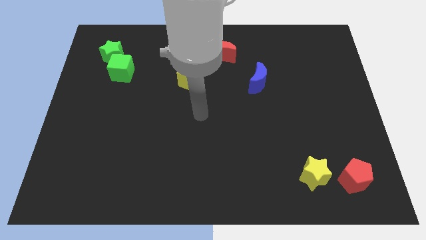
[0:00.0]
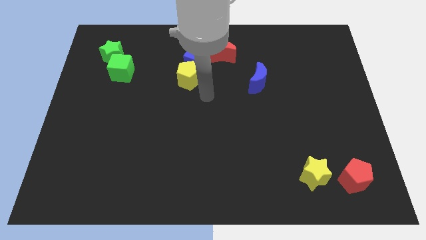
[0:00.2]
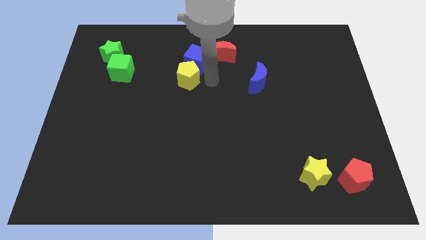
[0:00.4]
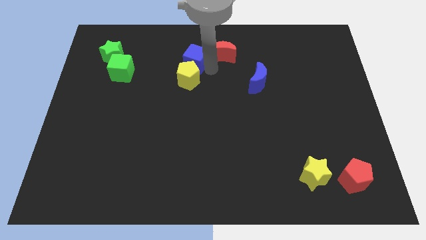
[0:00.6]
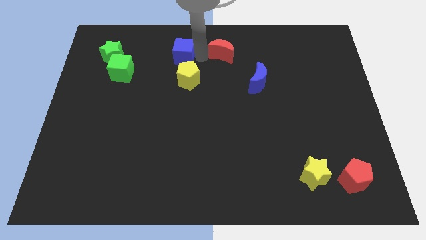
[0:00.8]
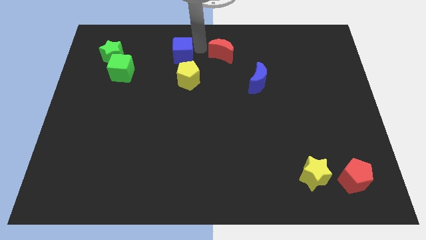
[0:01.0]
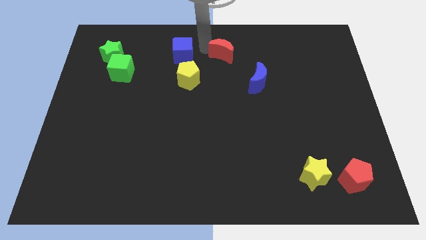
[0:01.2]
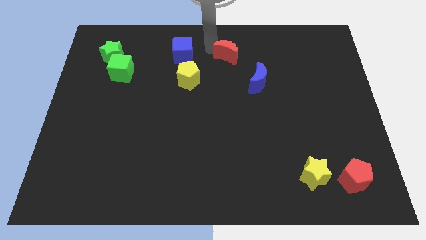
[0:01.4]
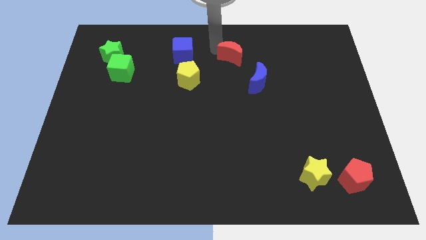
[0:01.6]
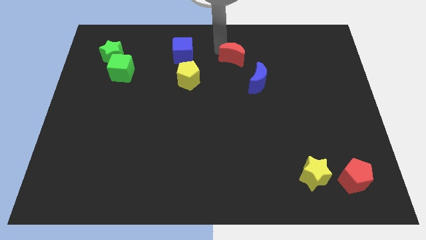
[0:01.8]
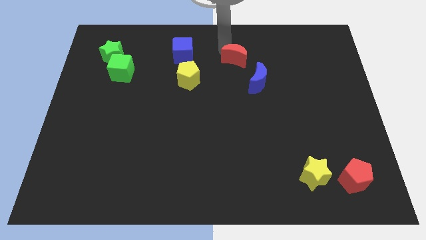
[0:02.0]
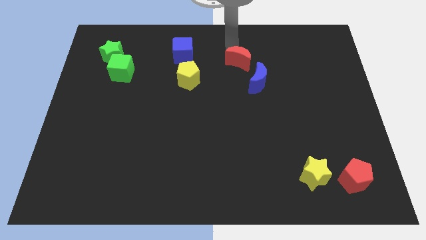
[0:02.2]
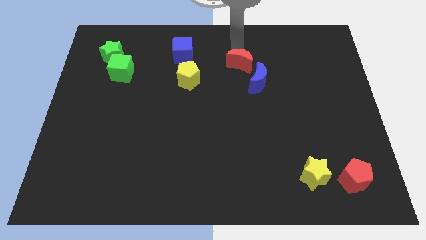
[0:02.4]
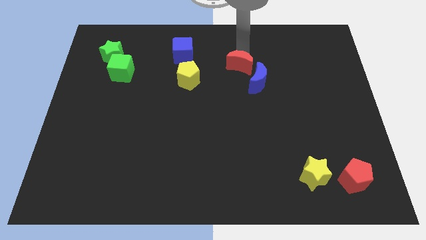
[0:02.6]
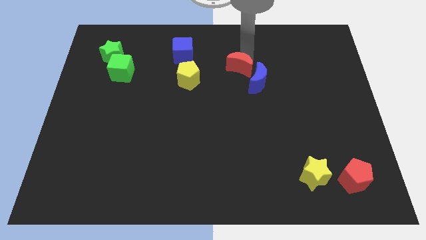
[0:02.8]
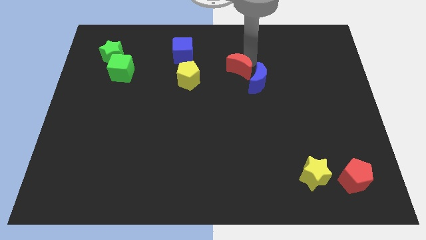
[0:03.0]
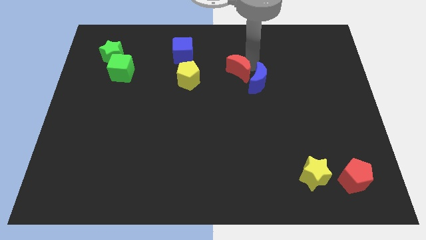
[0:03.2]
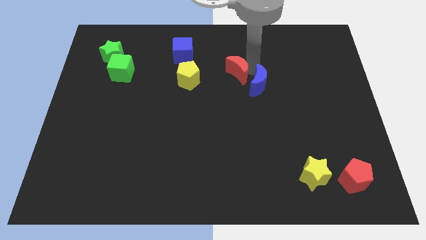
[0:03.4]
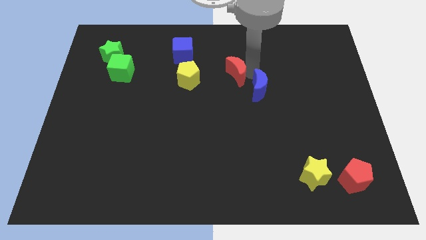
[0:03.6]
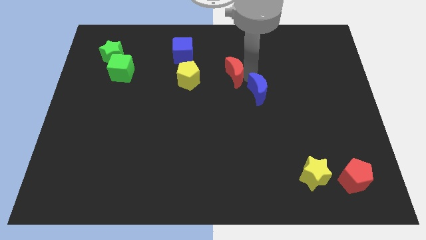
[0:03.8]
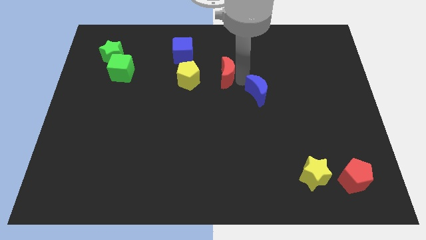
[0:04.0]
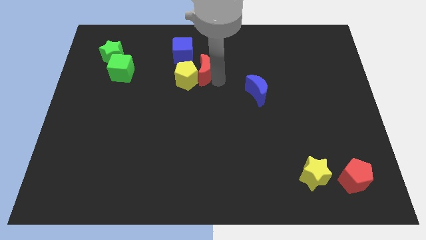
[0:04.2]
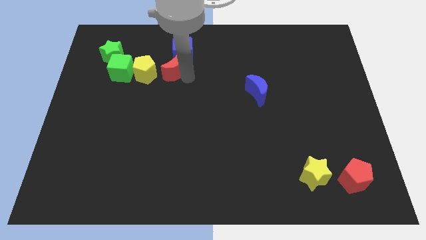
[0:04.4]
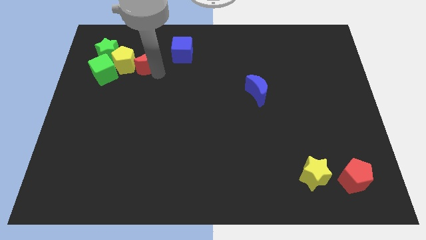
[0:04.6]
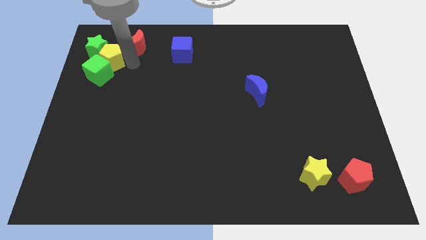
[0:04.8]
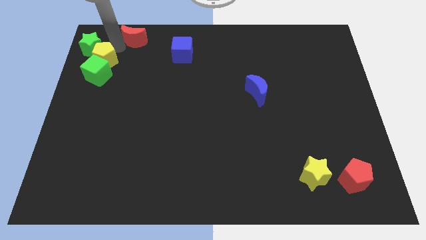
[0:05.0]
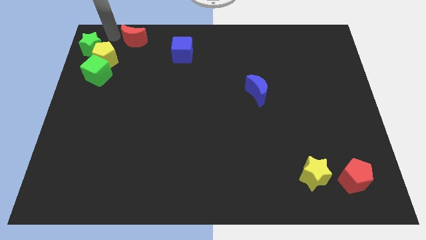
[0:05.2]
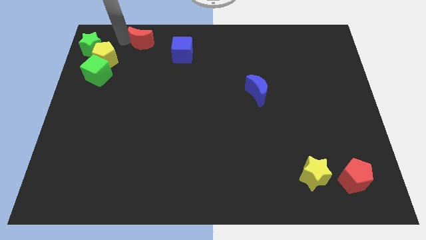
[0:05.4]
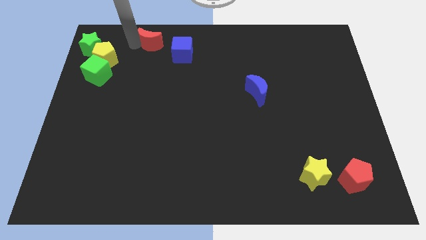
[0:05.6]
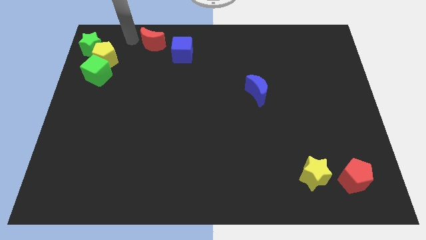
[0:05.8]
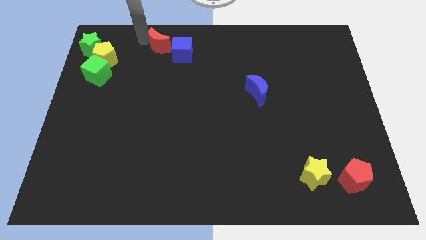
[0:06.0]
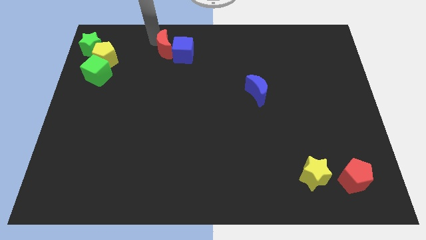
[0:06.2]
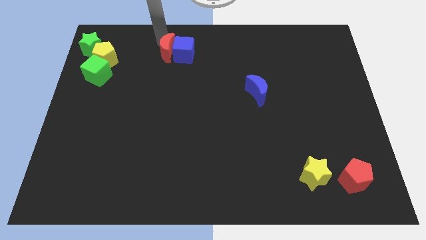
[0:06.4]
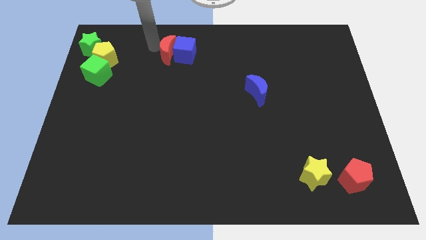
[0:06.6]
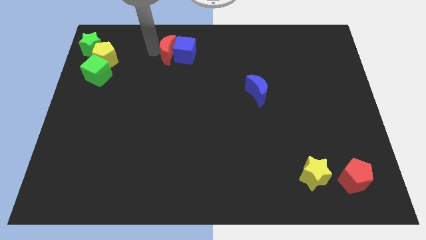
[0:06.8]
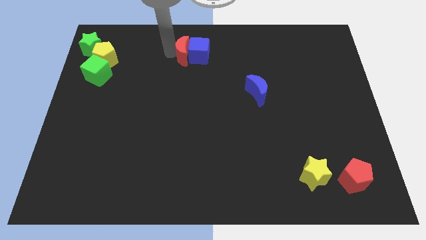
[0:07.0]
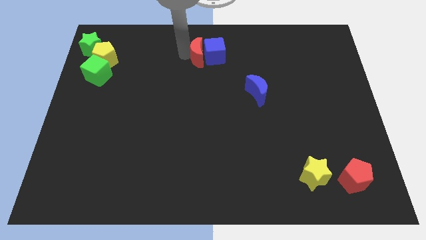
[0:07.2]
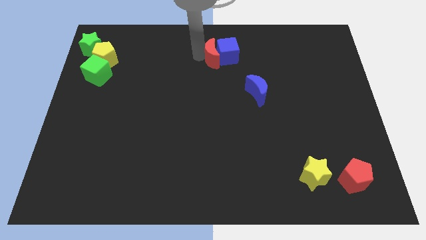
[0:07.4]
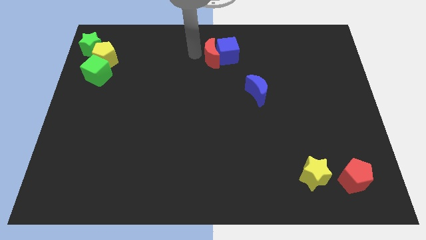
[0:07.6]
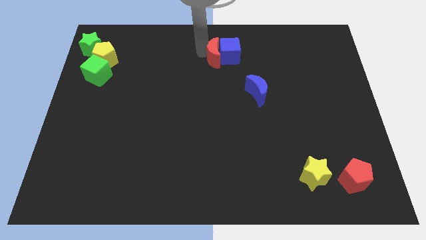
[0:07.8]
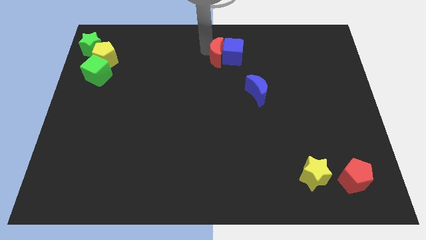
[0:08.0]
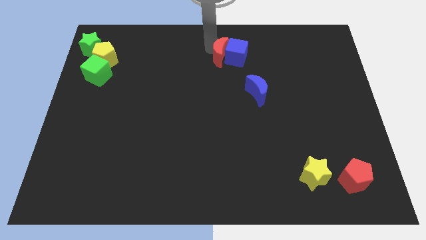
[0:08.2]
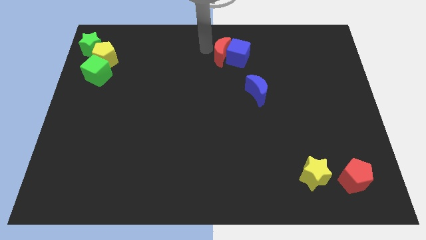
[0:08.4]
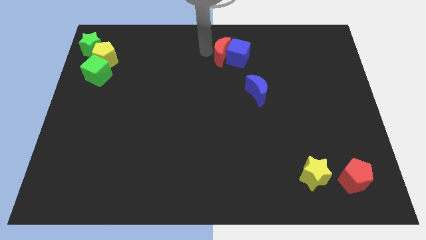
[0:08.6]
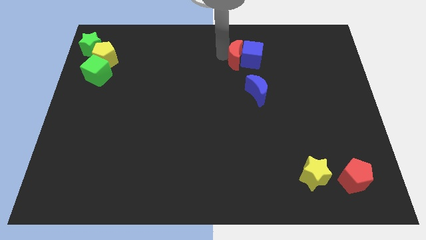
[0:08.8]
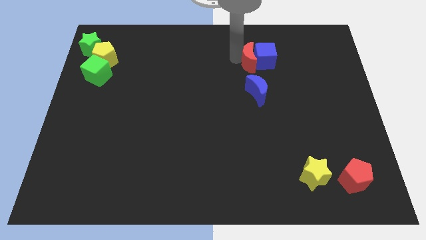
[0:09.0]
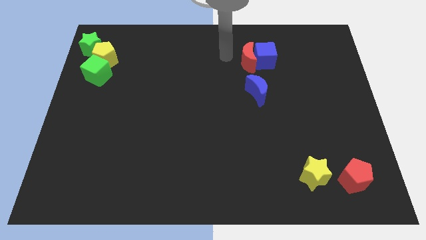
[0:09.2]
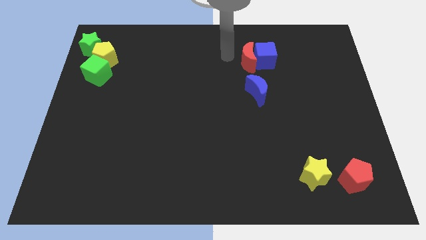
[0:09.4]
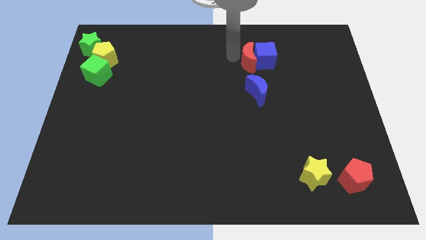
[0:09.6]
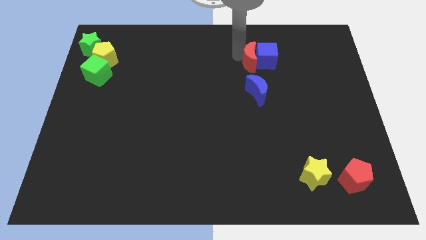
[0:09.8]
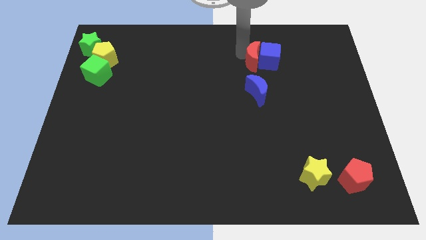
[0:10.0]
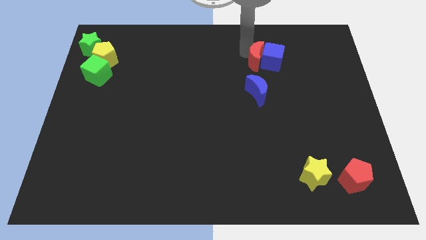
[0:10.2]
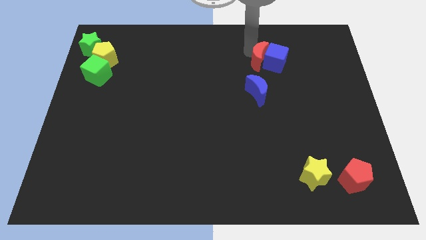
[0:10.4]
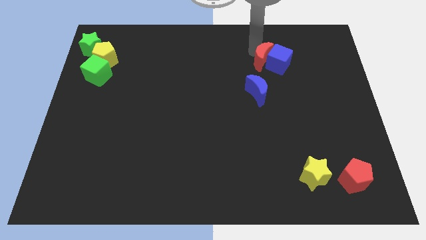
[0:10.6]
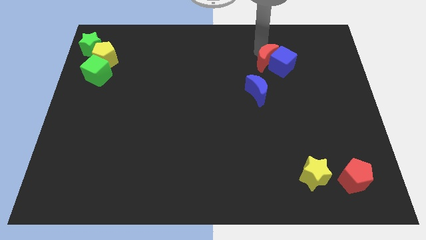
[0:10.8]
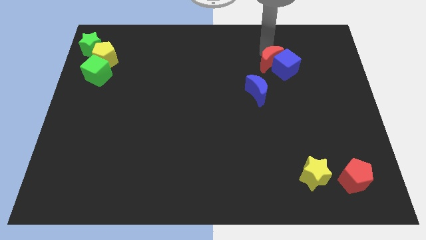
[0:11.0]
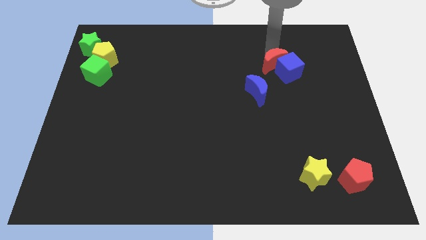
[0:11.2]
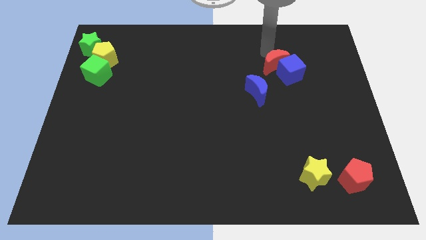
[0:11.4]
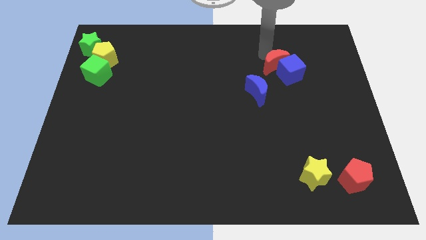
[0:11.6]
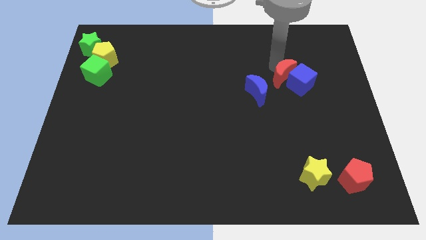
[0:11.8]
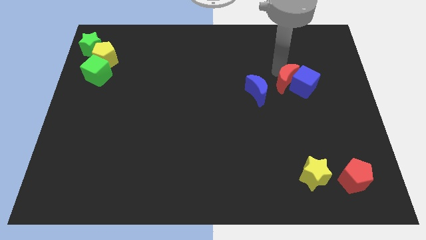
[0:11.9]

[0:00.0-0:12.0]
slide the red moon to the right of the blue moon

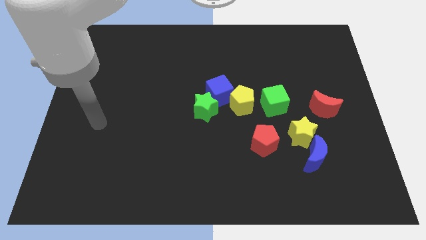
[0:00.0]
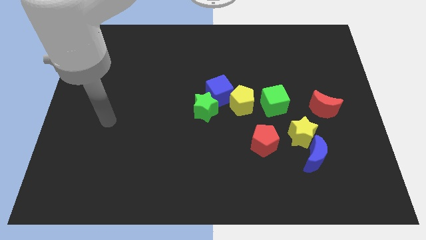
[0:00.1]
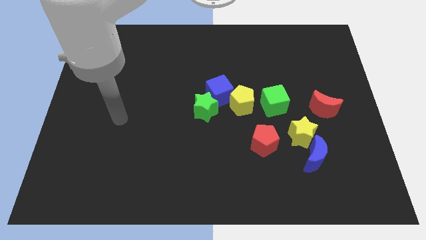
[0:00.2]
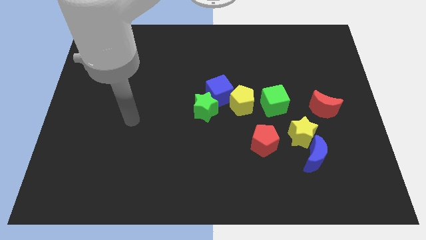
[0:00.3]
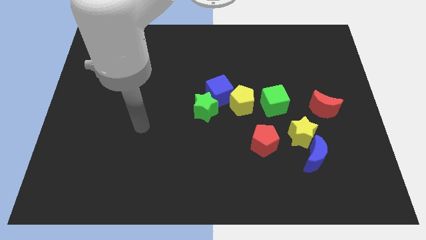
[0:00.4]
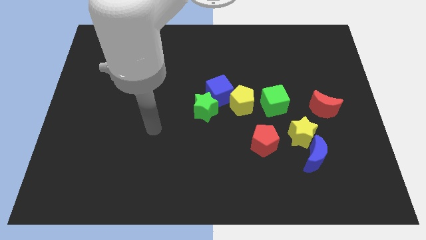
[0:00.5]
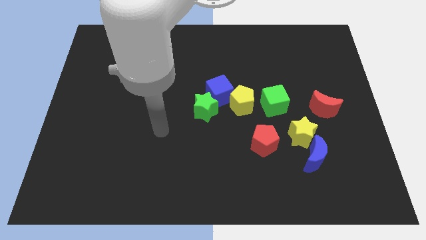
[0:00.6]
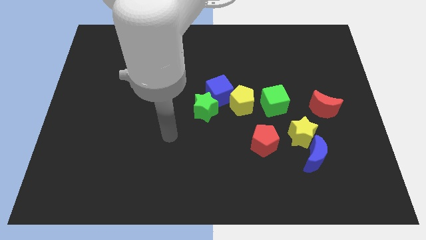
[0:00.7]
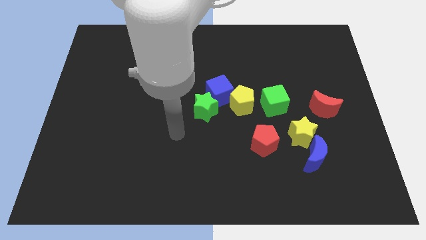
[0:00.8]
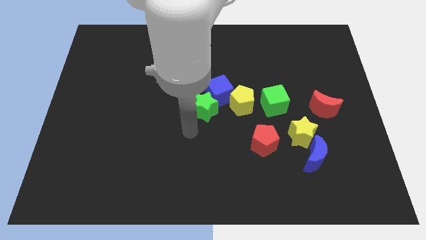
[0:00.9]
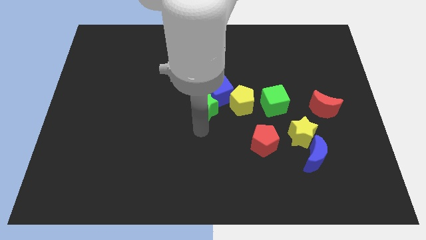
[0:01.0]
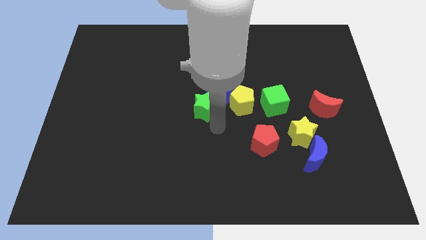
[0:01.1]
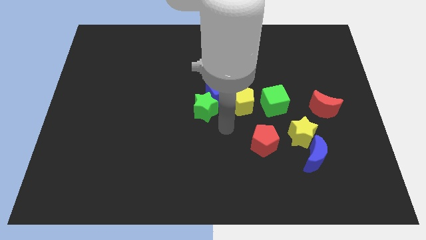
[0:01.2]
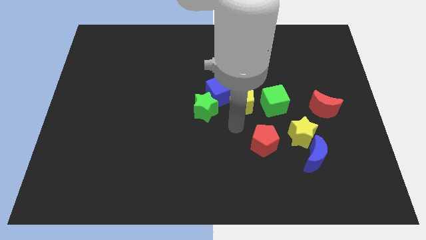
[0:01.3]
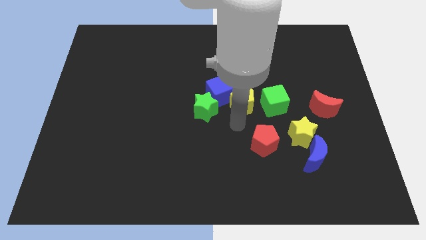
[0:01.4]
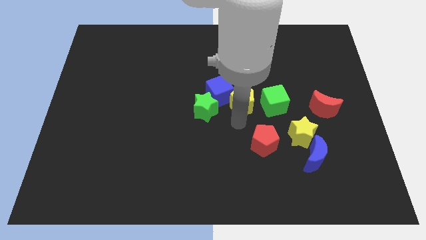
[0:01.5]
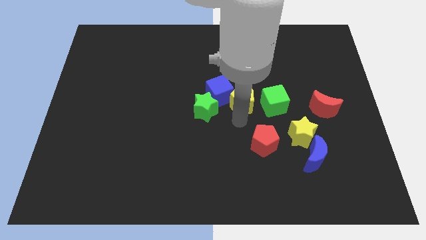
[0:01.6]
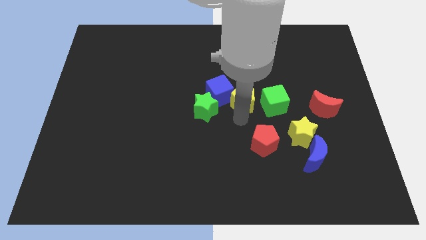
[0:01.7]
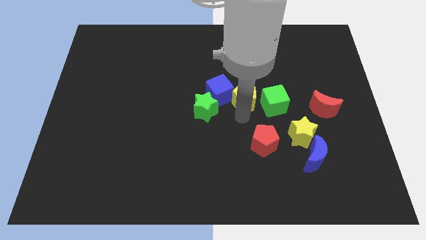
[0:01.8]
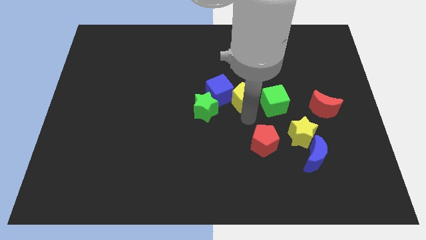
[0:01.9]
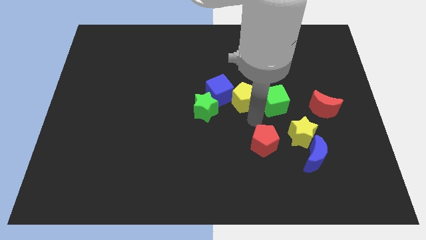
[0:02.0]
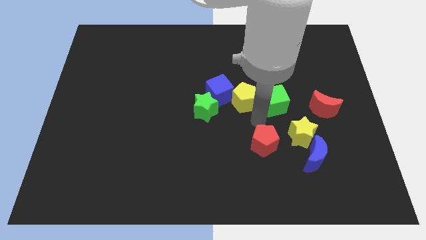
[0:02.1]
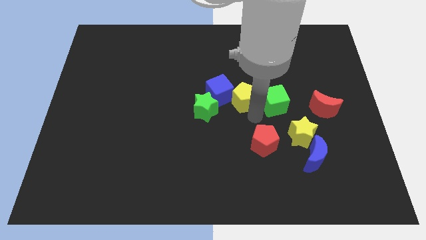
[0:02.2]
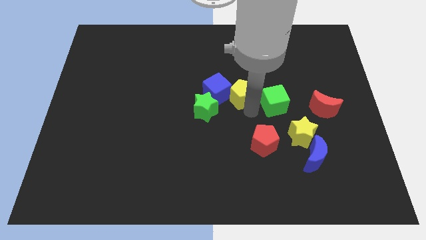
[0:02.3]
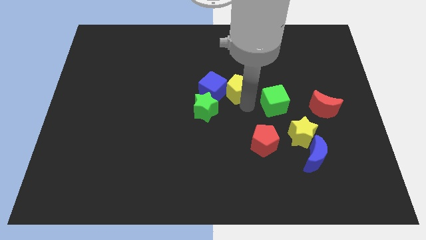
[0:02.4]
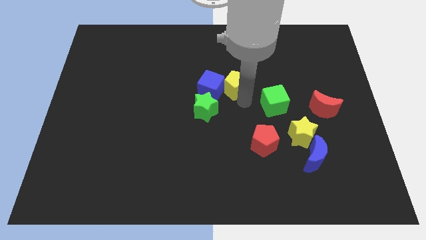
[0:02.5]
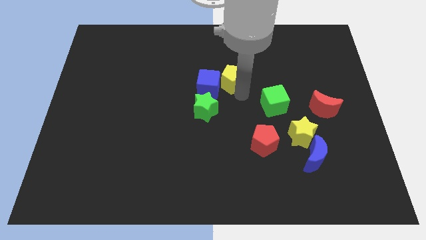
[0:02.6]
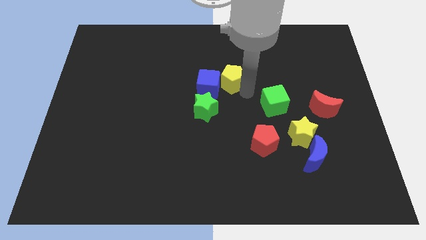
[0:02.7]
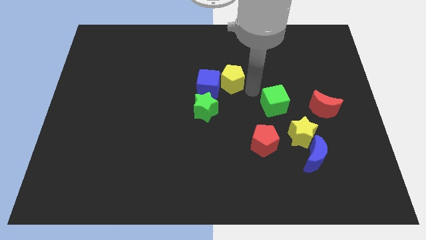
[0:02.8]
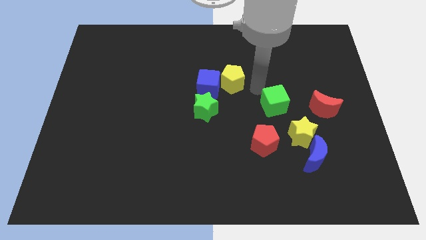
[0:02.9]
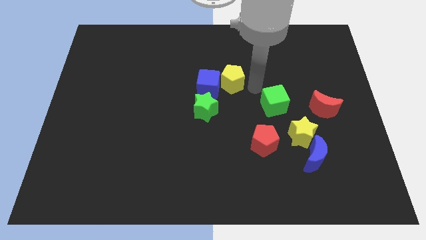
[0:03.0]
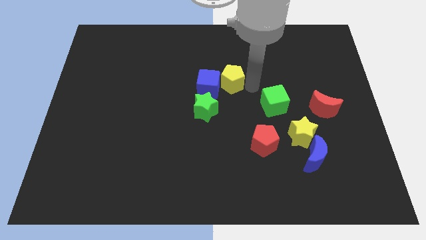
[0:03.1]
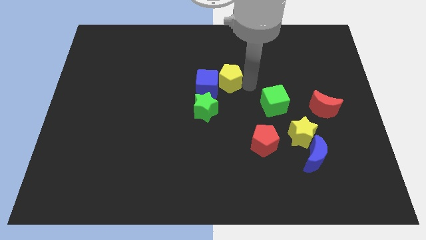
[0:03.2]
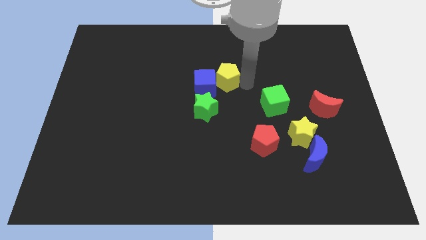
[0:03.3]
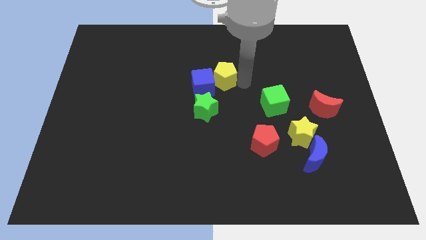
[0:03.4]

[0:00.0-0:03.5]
push the yellow pentagon above the green star
